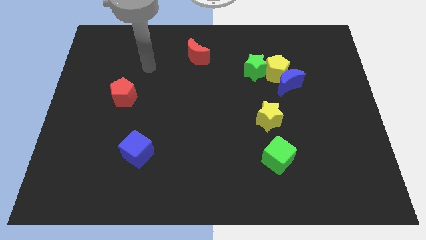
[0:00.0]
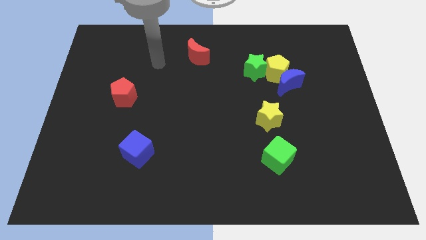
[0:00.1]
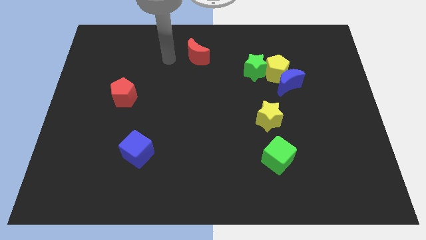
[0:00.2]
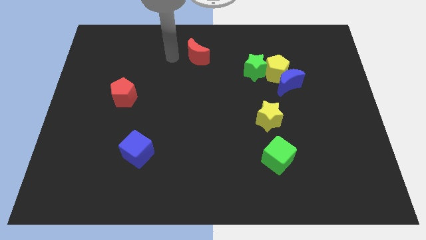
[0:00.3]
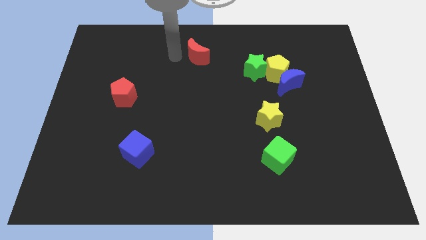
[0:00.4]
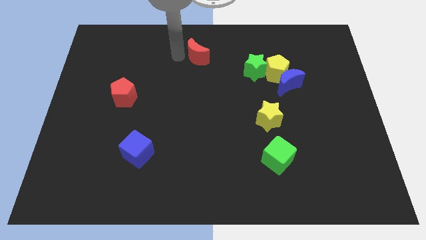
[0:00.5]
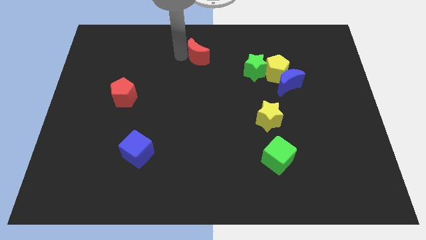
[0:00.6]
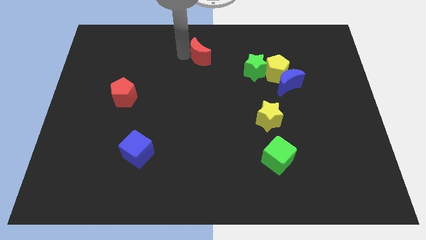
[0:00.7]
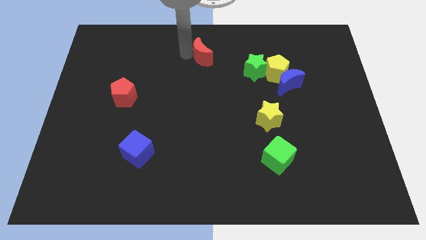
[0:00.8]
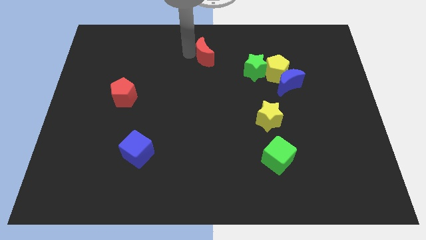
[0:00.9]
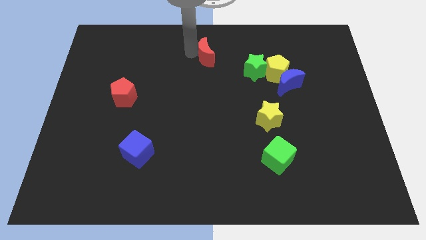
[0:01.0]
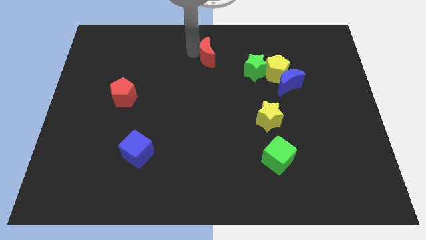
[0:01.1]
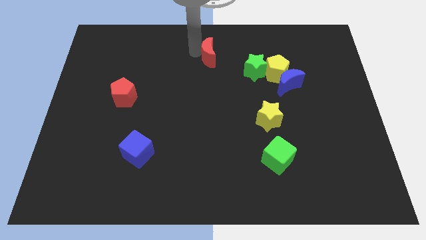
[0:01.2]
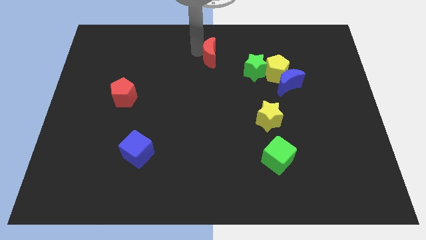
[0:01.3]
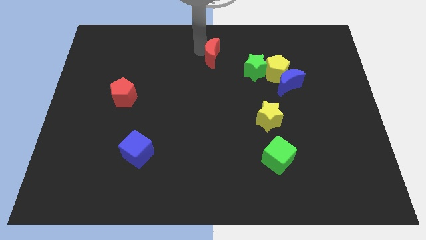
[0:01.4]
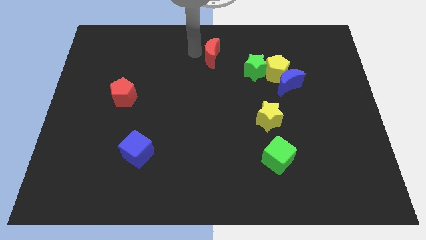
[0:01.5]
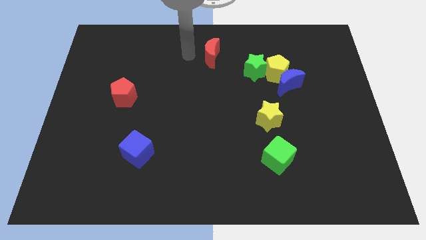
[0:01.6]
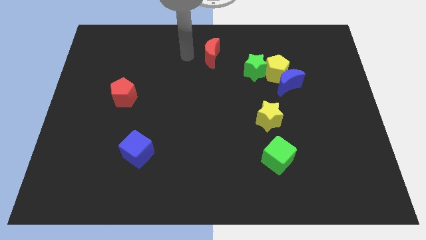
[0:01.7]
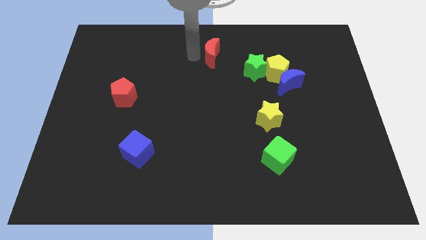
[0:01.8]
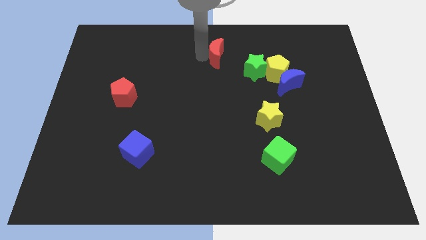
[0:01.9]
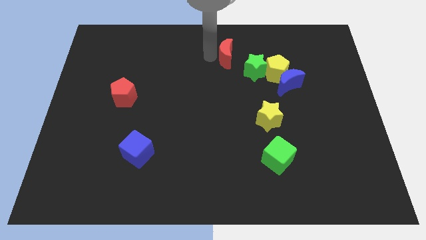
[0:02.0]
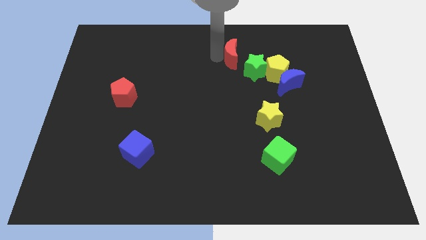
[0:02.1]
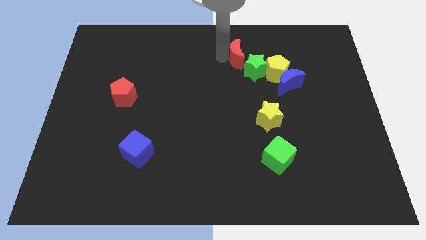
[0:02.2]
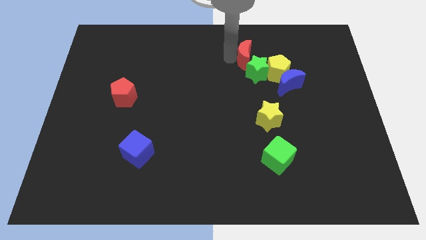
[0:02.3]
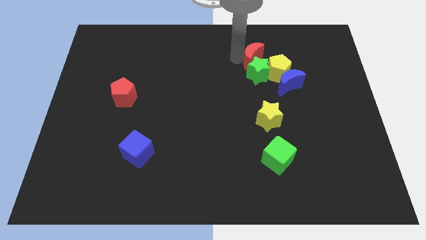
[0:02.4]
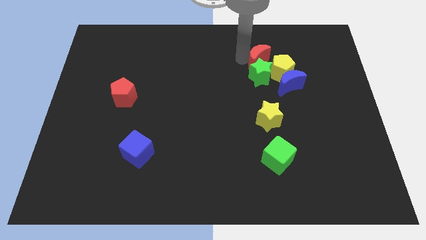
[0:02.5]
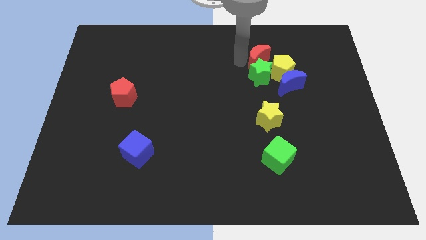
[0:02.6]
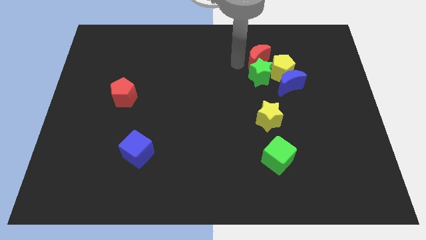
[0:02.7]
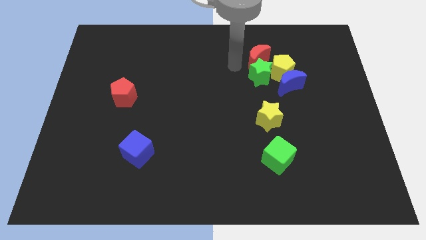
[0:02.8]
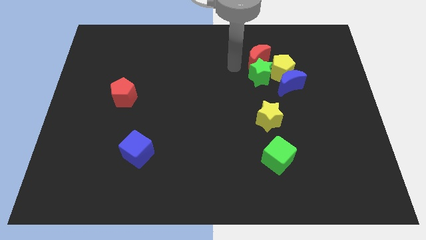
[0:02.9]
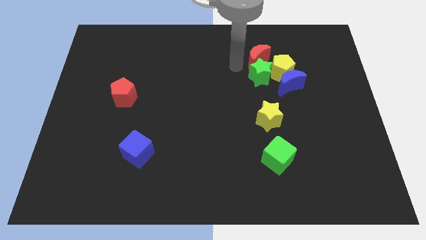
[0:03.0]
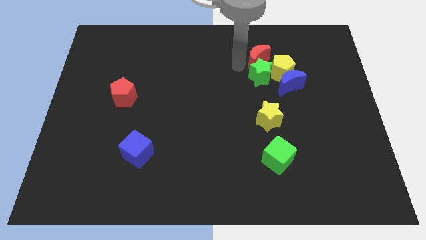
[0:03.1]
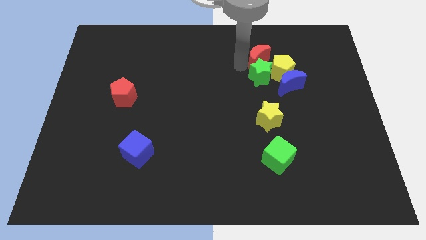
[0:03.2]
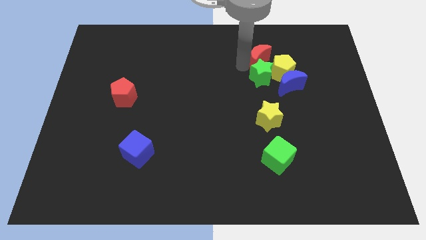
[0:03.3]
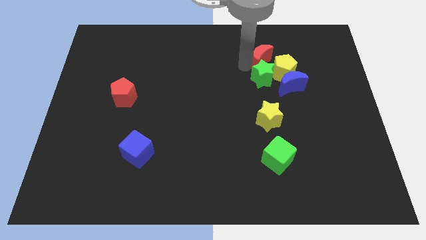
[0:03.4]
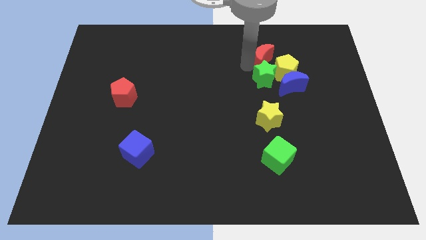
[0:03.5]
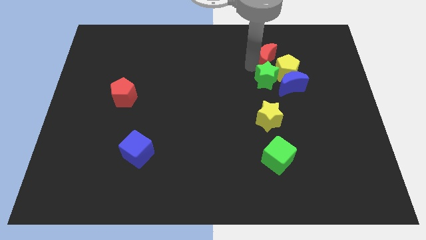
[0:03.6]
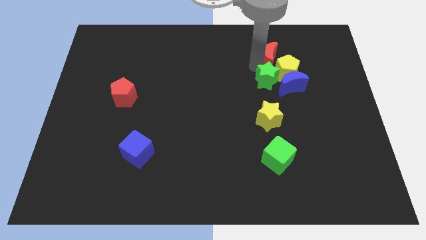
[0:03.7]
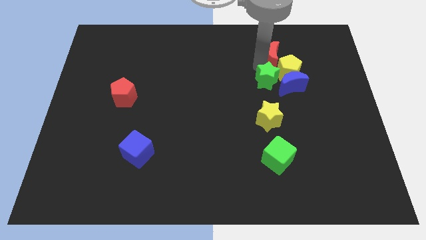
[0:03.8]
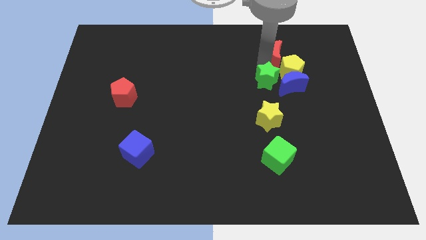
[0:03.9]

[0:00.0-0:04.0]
move the red moon right

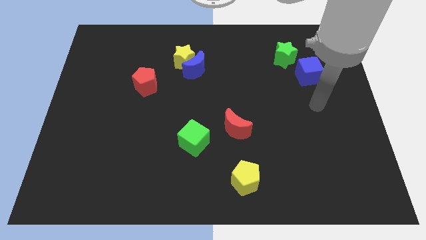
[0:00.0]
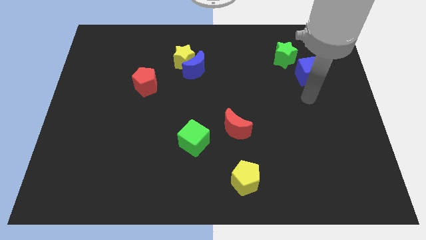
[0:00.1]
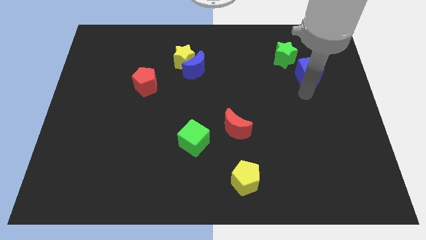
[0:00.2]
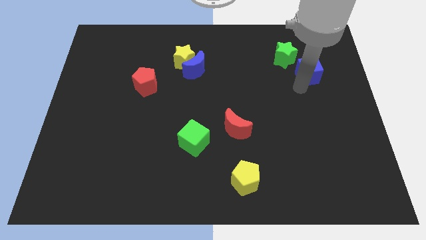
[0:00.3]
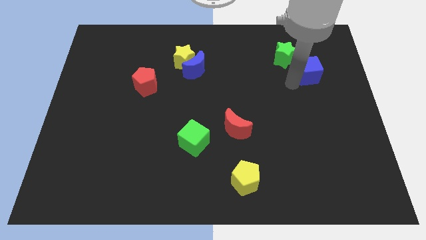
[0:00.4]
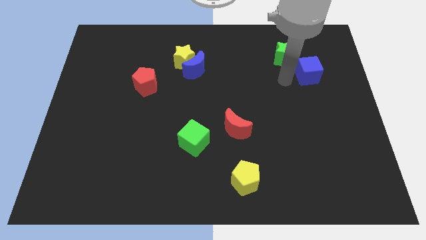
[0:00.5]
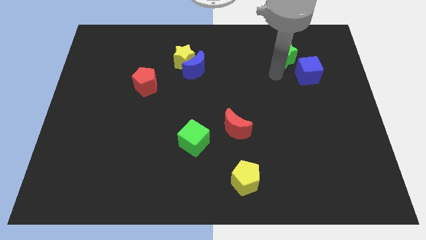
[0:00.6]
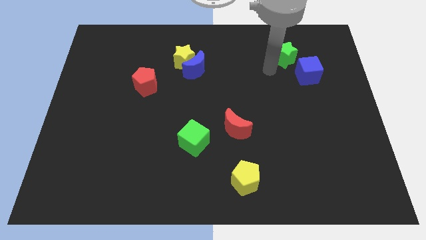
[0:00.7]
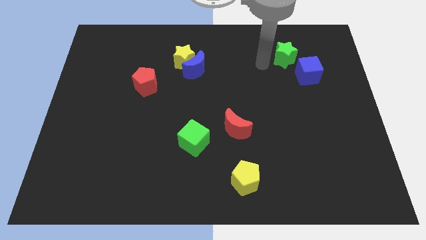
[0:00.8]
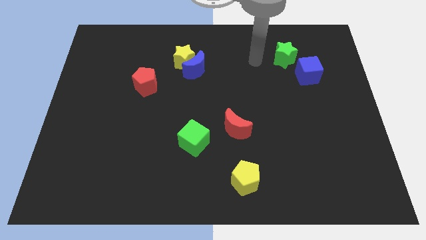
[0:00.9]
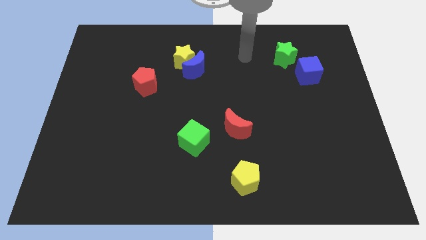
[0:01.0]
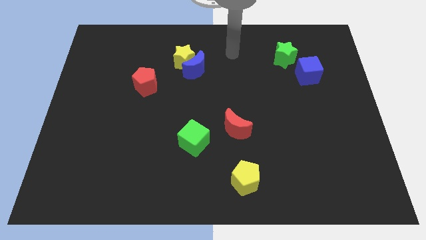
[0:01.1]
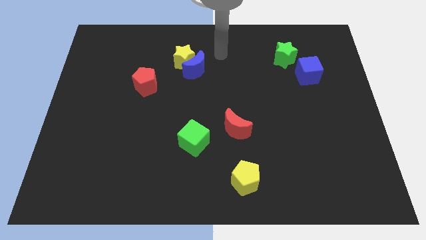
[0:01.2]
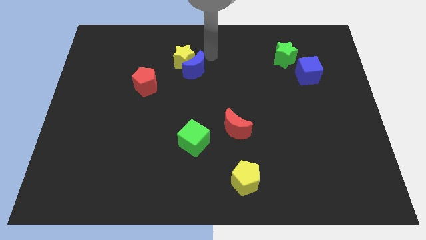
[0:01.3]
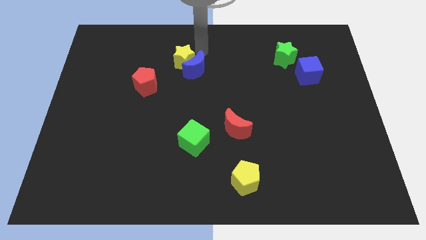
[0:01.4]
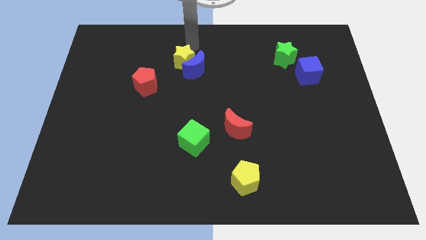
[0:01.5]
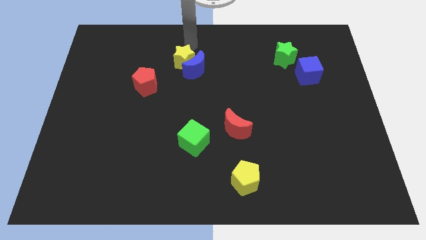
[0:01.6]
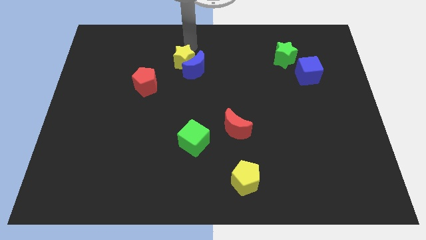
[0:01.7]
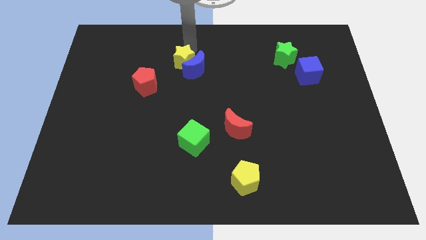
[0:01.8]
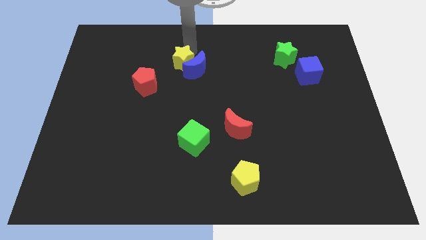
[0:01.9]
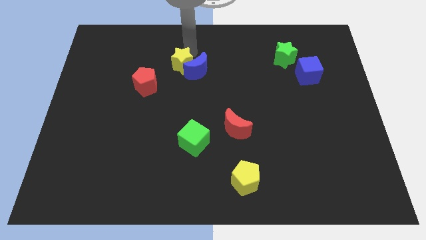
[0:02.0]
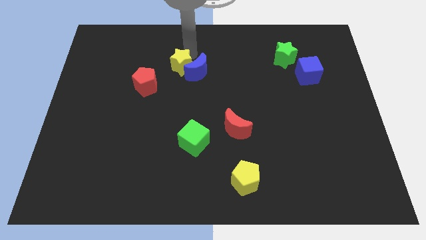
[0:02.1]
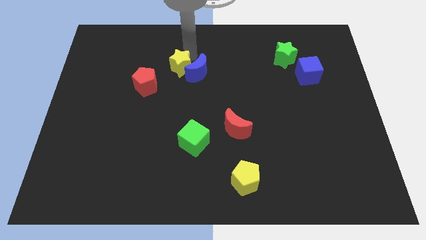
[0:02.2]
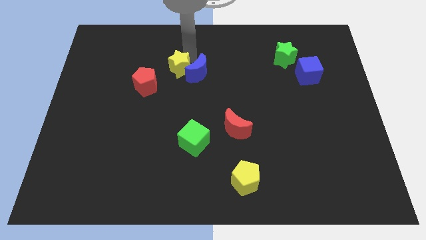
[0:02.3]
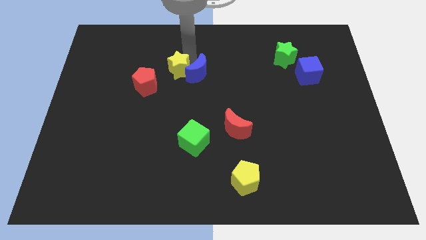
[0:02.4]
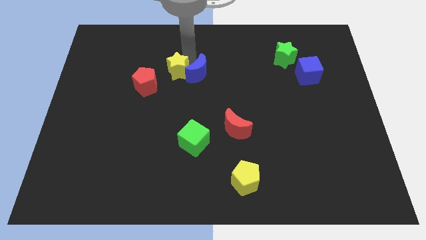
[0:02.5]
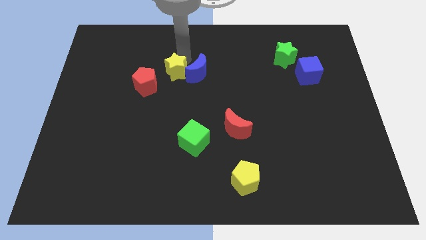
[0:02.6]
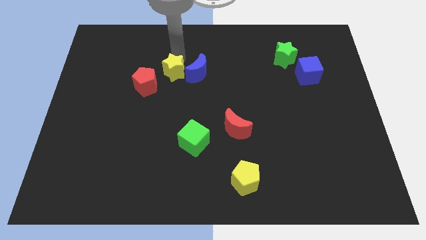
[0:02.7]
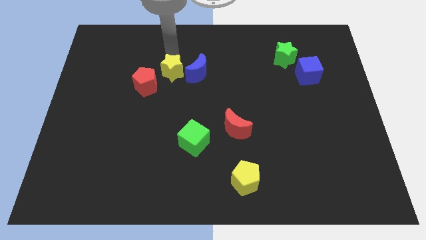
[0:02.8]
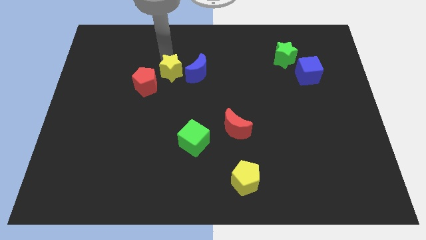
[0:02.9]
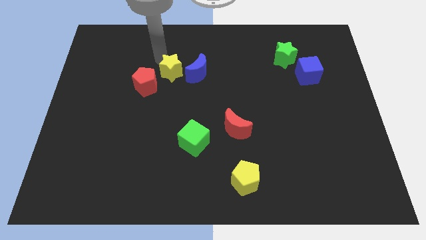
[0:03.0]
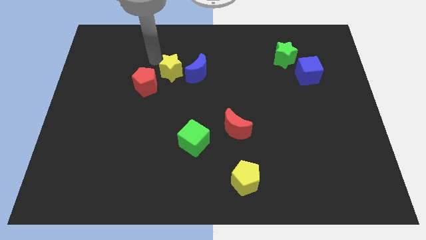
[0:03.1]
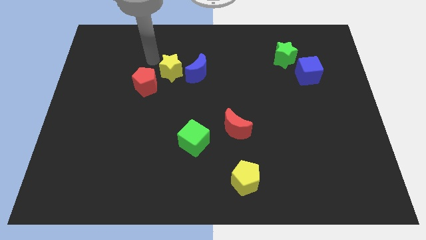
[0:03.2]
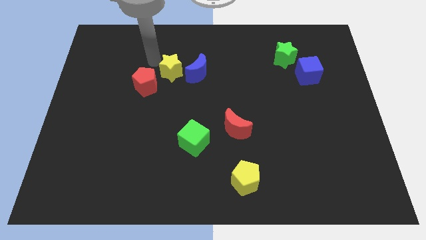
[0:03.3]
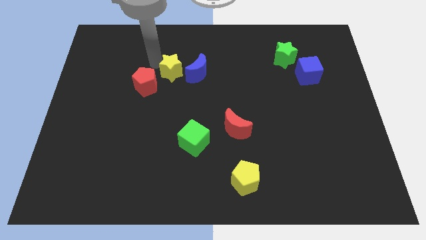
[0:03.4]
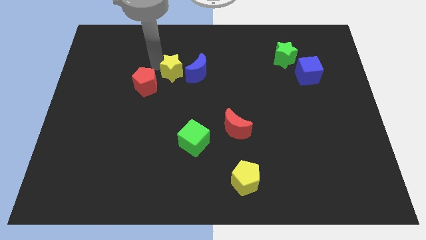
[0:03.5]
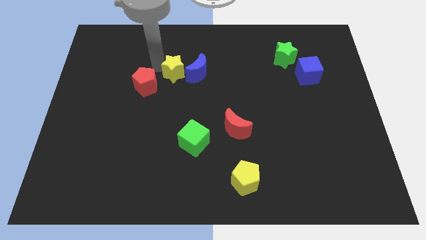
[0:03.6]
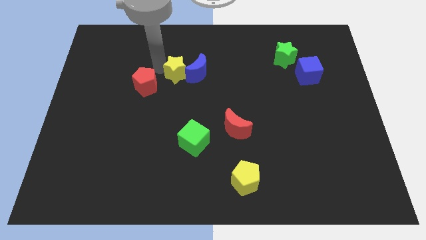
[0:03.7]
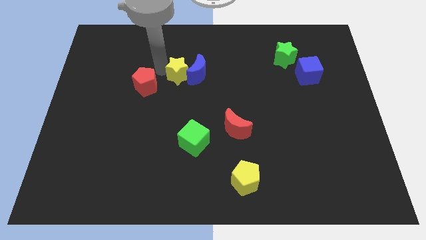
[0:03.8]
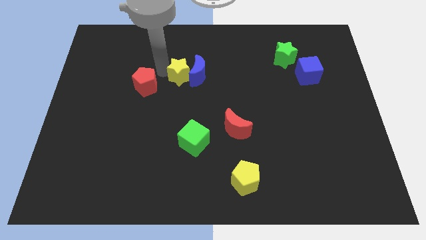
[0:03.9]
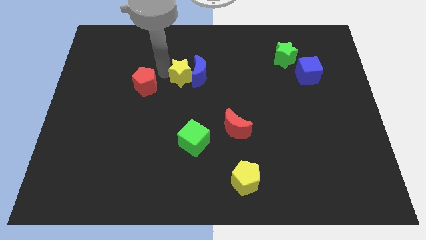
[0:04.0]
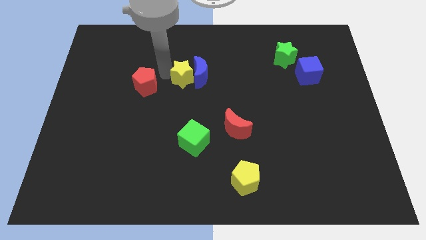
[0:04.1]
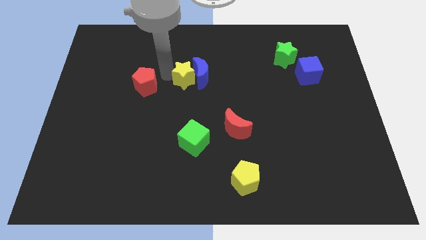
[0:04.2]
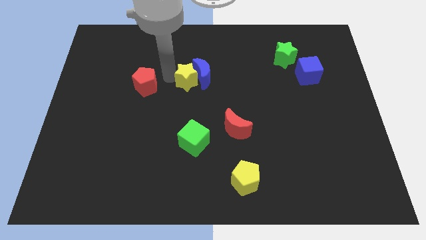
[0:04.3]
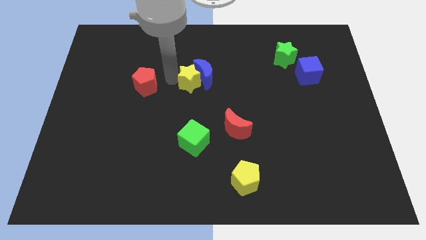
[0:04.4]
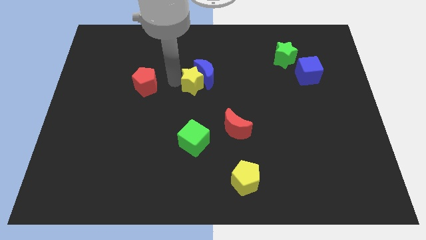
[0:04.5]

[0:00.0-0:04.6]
slightly slide the yellow star diagonally down and right
